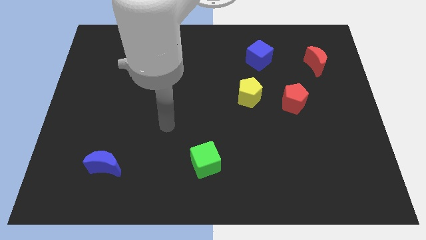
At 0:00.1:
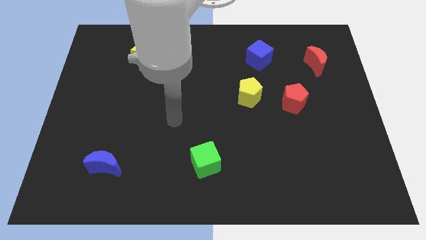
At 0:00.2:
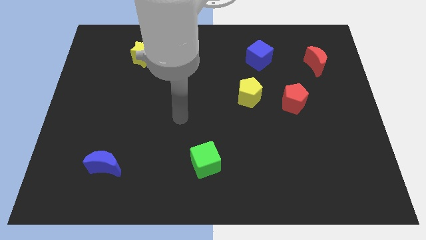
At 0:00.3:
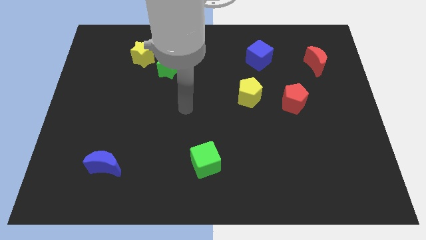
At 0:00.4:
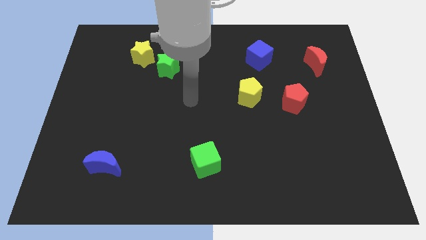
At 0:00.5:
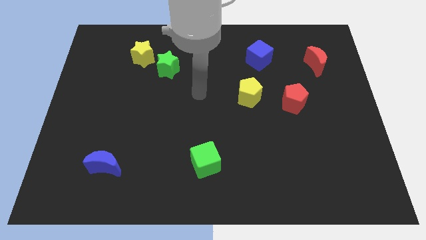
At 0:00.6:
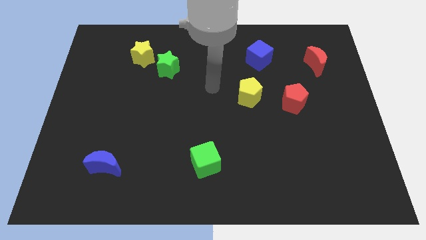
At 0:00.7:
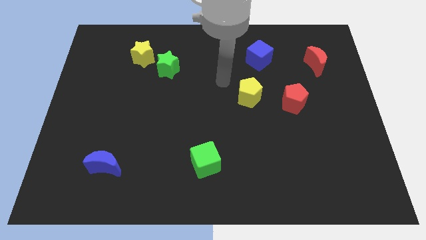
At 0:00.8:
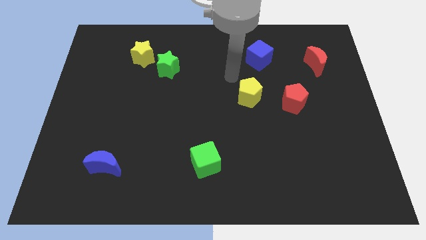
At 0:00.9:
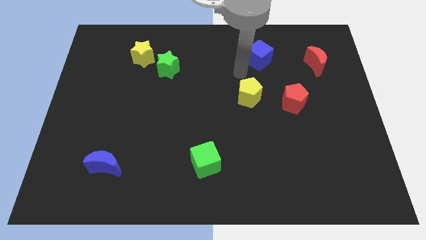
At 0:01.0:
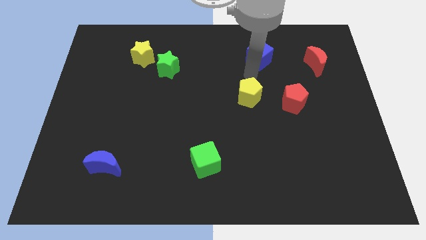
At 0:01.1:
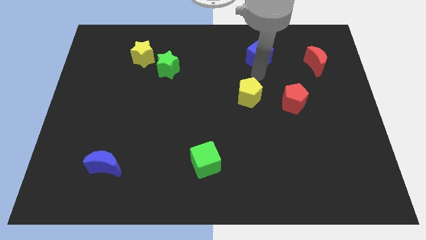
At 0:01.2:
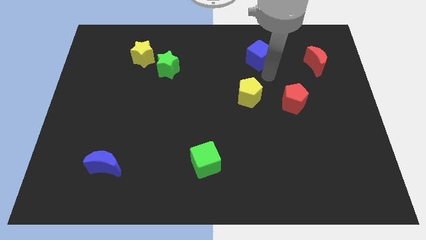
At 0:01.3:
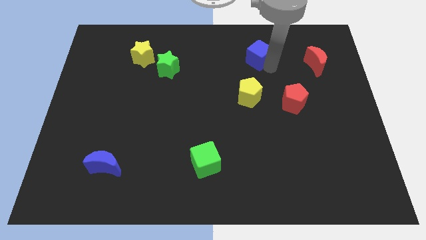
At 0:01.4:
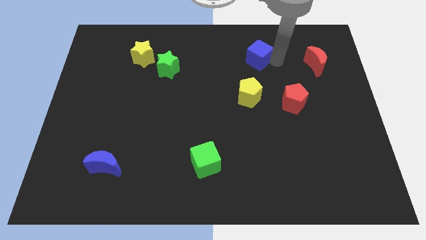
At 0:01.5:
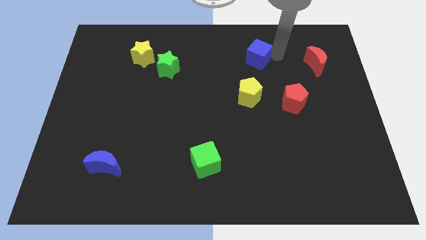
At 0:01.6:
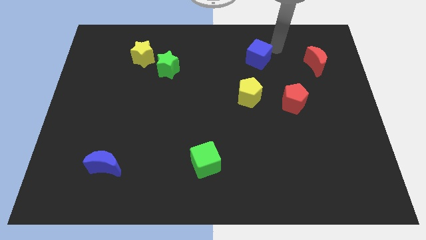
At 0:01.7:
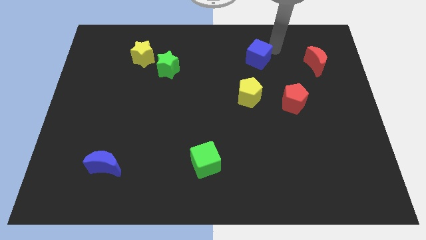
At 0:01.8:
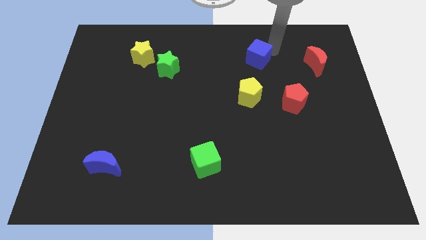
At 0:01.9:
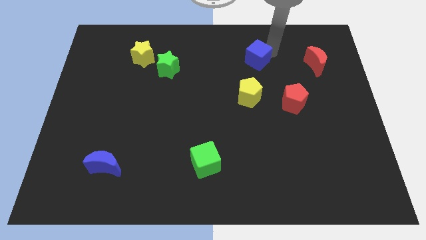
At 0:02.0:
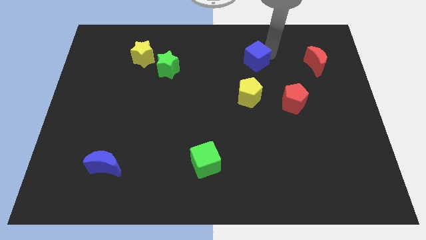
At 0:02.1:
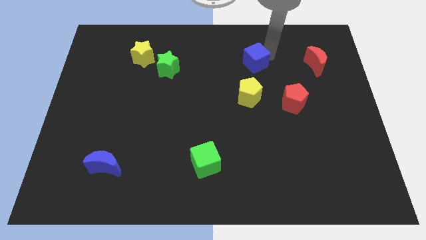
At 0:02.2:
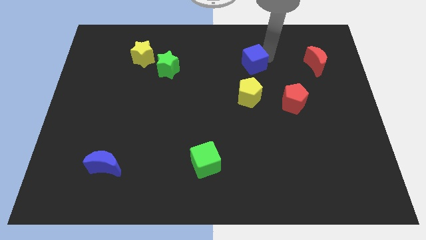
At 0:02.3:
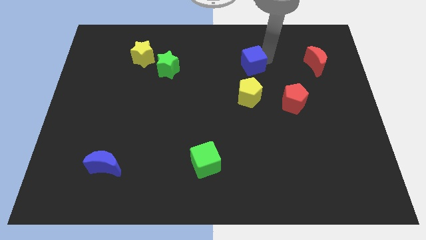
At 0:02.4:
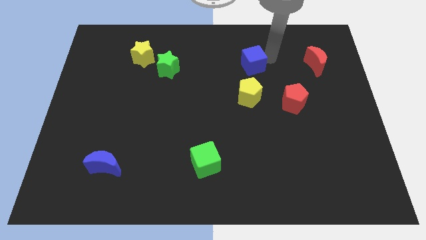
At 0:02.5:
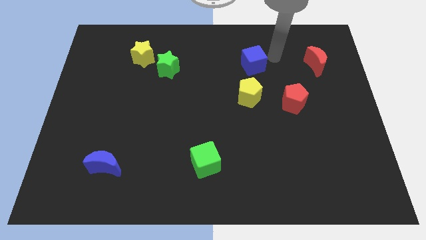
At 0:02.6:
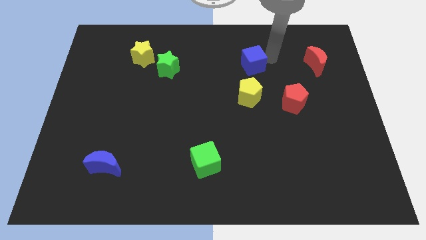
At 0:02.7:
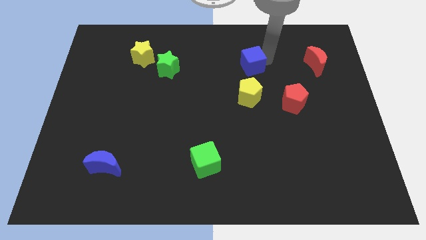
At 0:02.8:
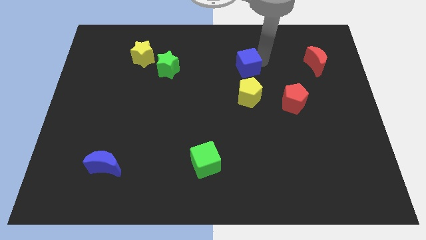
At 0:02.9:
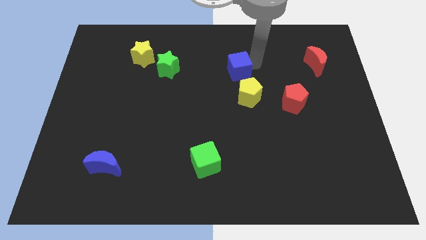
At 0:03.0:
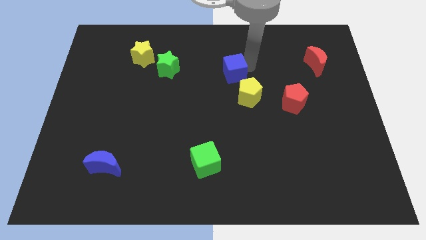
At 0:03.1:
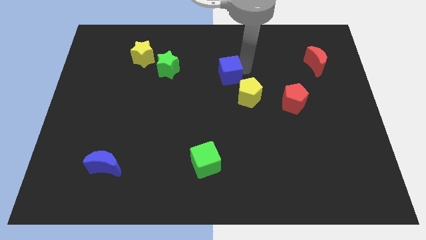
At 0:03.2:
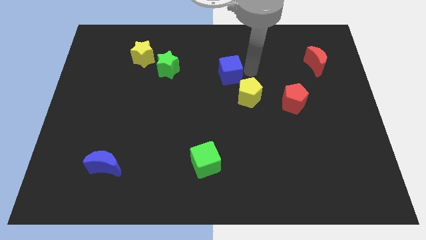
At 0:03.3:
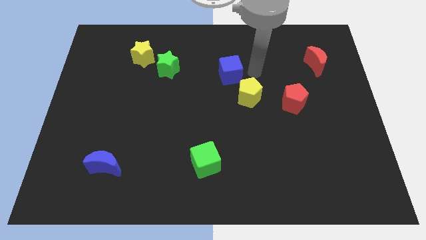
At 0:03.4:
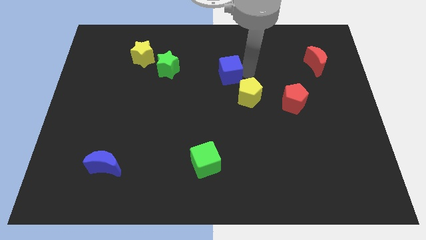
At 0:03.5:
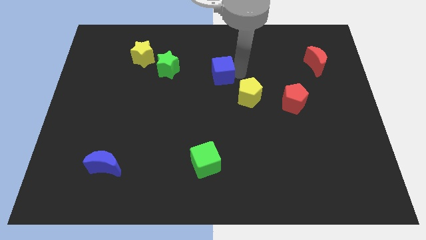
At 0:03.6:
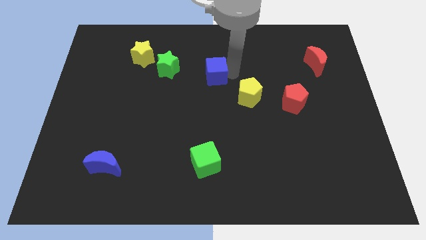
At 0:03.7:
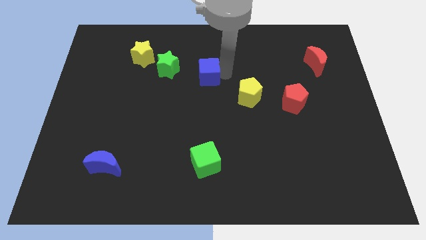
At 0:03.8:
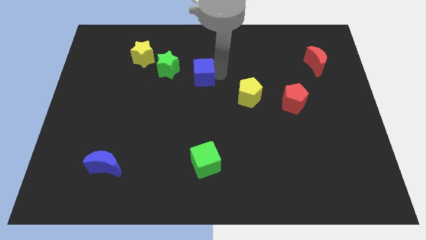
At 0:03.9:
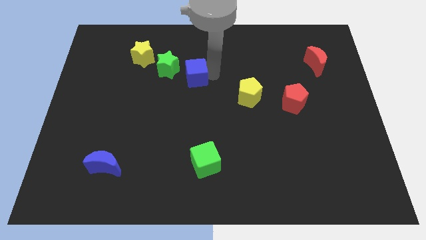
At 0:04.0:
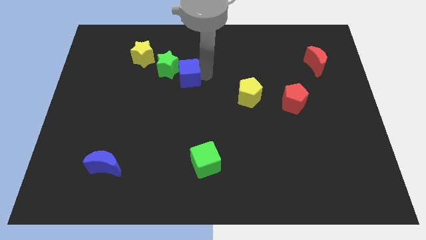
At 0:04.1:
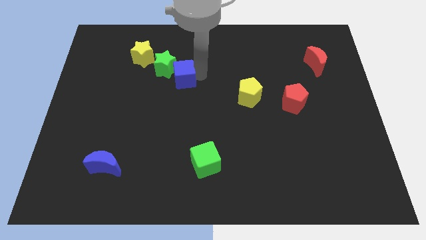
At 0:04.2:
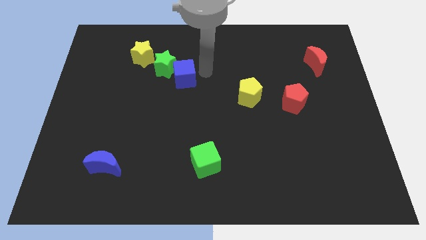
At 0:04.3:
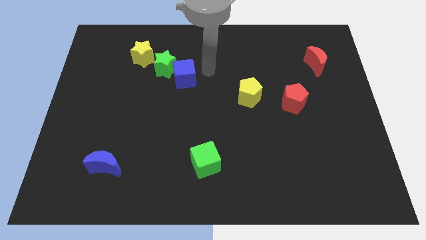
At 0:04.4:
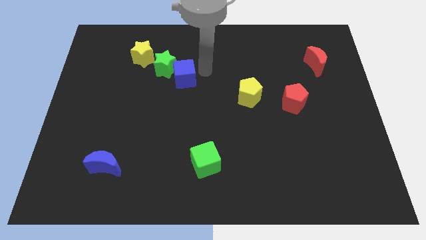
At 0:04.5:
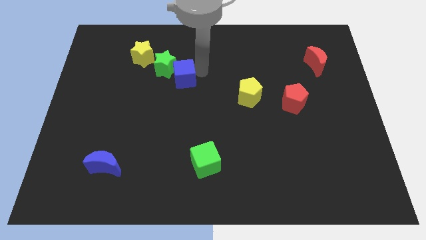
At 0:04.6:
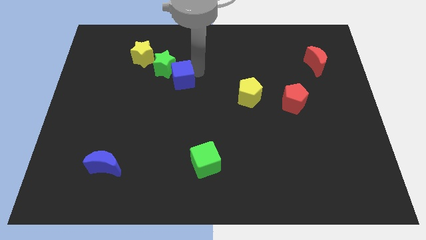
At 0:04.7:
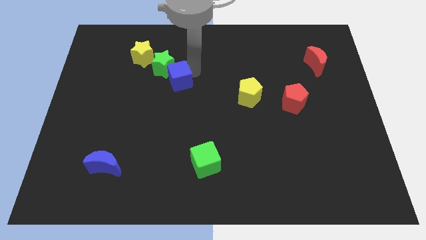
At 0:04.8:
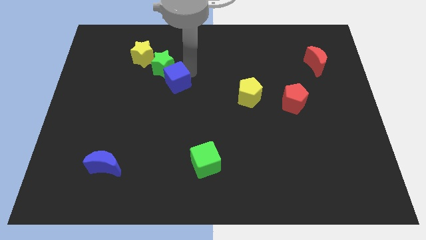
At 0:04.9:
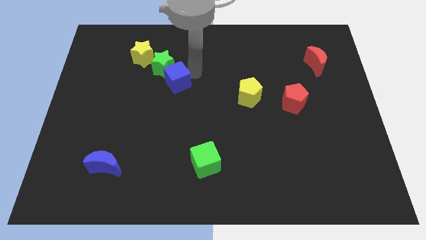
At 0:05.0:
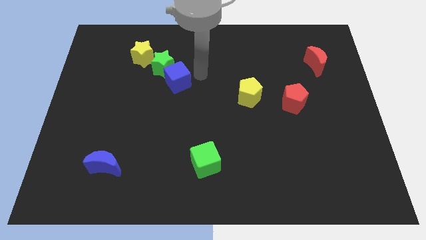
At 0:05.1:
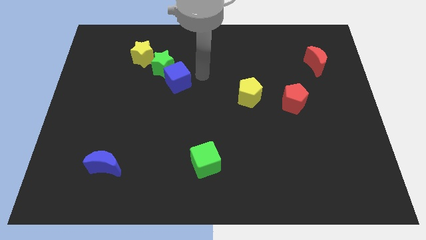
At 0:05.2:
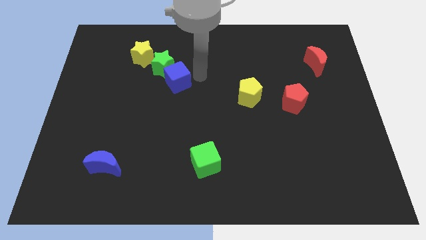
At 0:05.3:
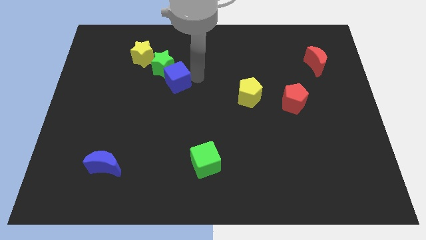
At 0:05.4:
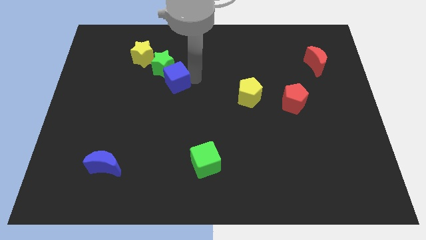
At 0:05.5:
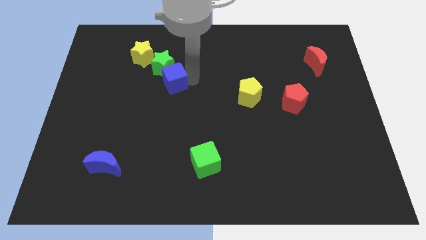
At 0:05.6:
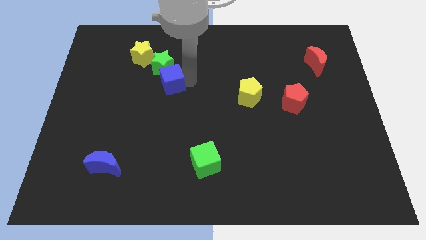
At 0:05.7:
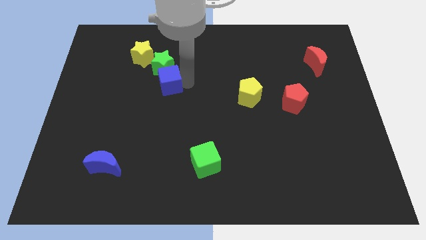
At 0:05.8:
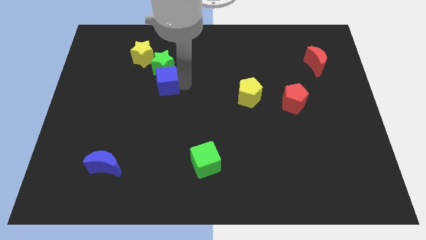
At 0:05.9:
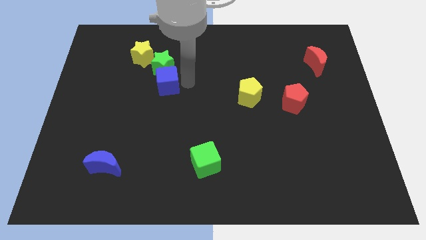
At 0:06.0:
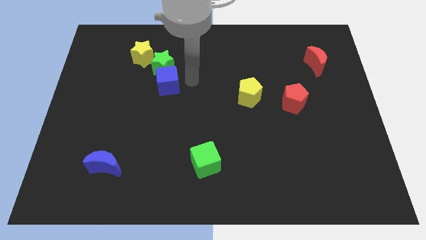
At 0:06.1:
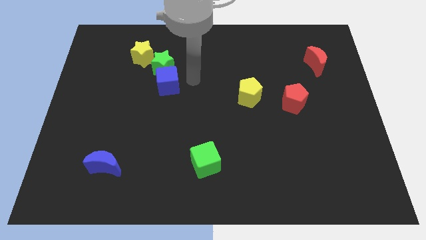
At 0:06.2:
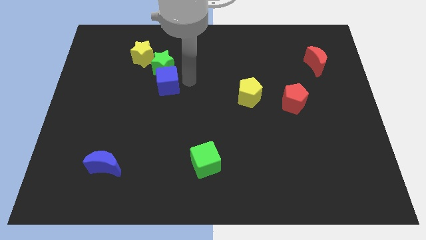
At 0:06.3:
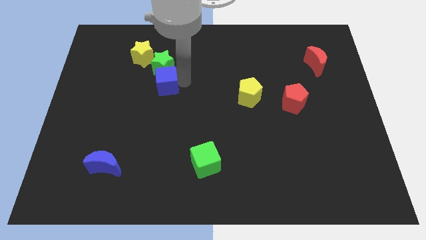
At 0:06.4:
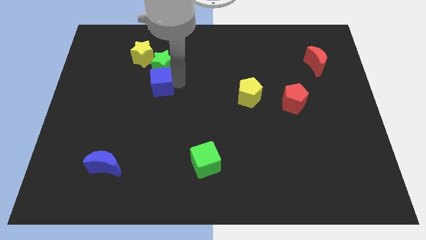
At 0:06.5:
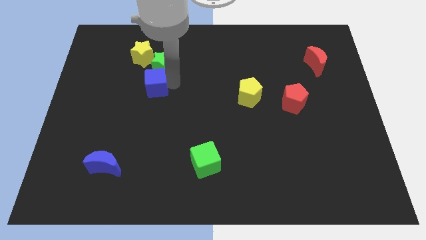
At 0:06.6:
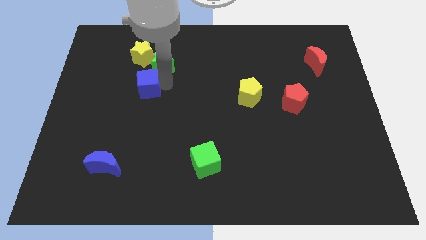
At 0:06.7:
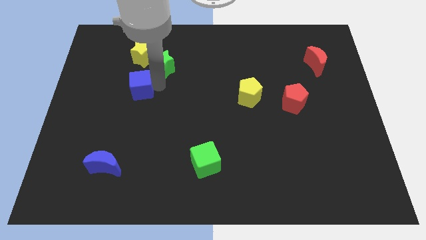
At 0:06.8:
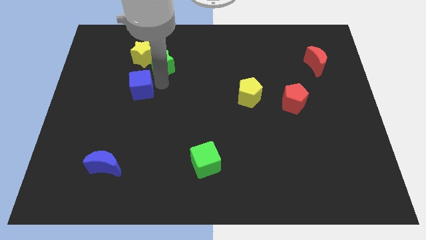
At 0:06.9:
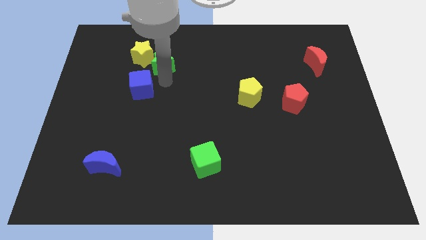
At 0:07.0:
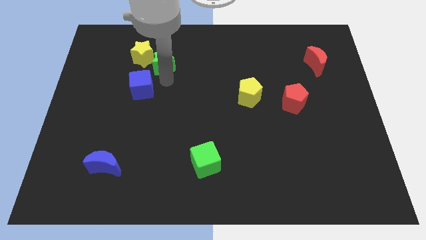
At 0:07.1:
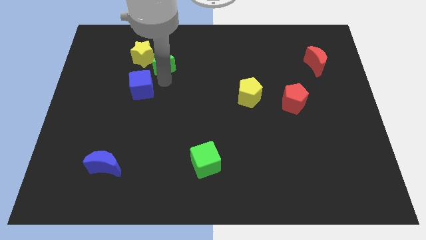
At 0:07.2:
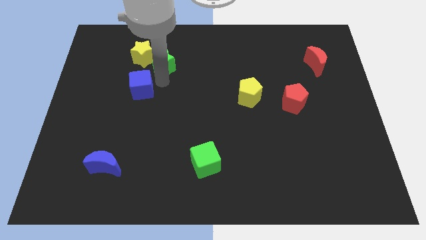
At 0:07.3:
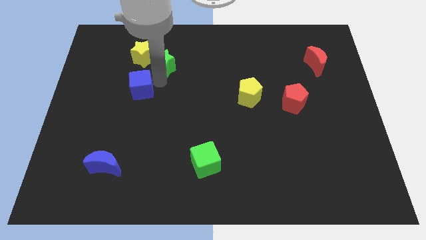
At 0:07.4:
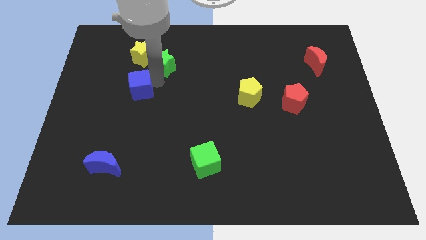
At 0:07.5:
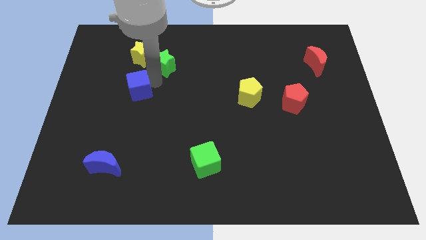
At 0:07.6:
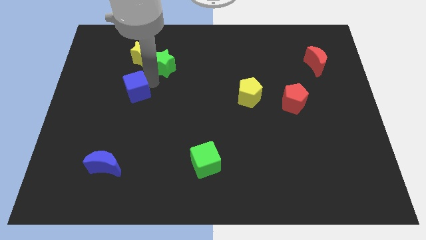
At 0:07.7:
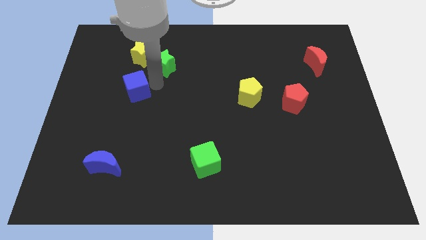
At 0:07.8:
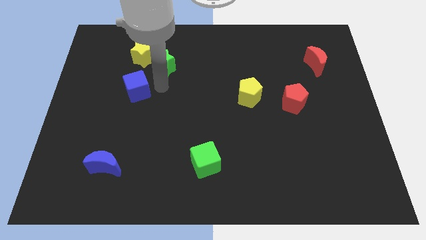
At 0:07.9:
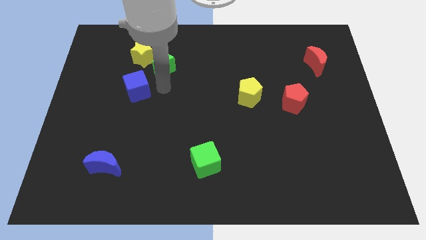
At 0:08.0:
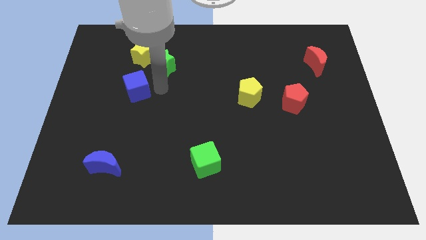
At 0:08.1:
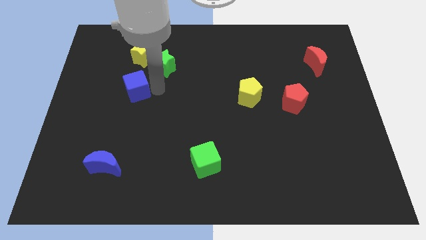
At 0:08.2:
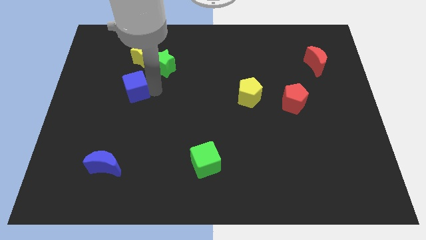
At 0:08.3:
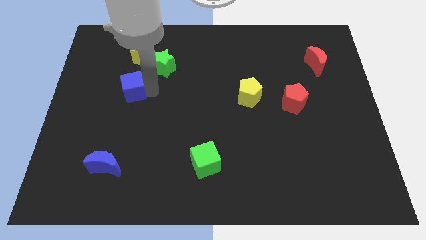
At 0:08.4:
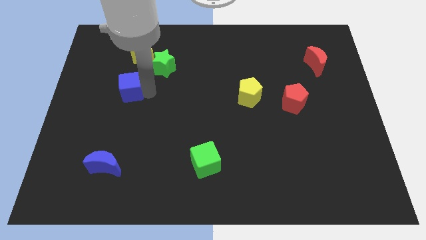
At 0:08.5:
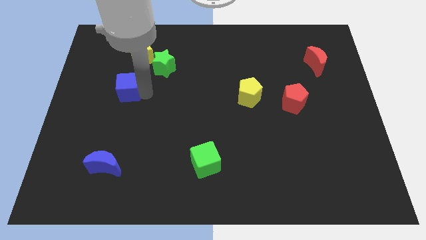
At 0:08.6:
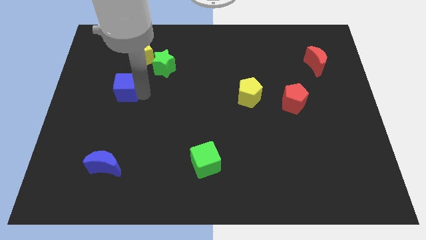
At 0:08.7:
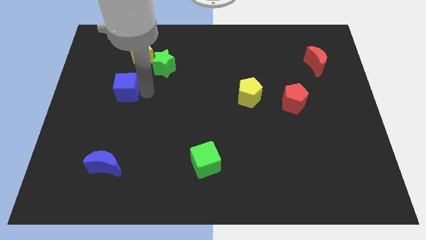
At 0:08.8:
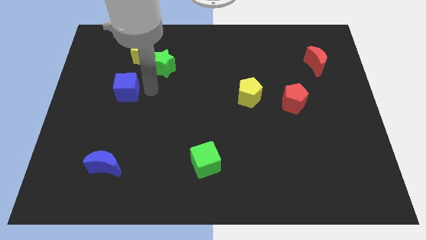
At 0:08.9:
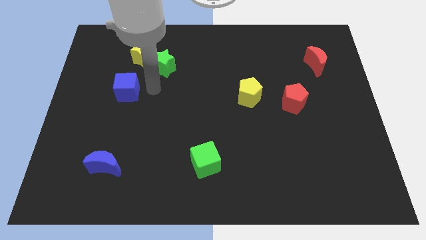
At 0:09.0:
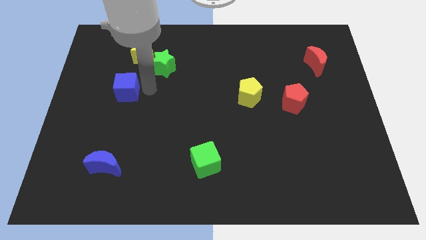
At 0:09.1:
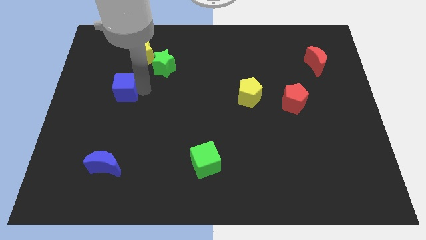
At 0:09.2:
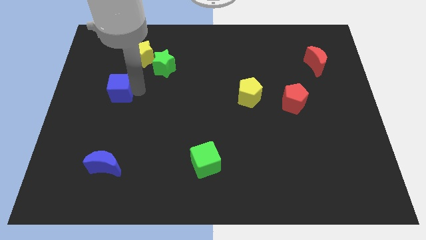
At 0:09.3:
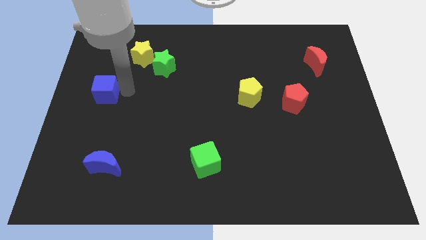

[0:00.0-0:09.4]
slide the blue cube to the left side
